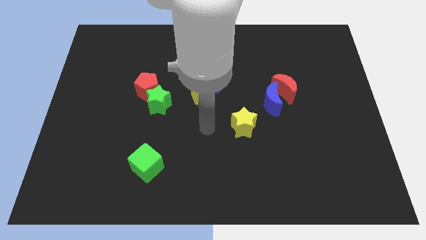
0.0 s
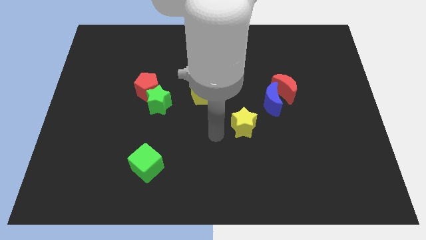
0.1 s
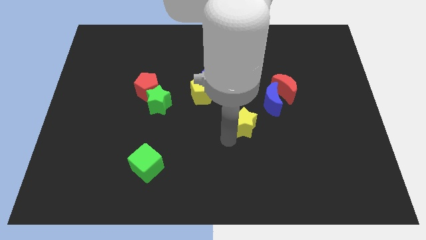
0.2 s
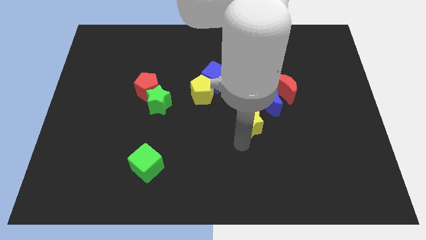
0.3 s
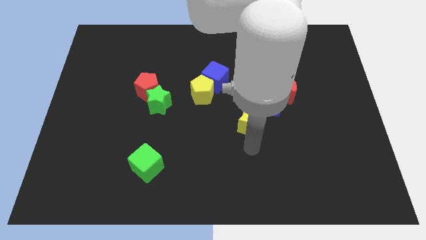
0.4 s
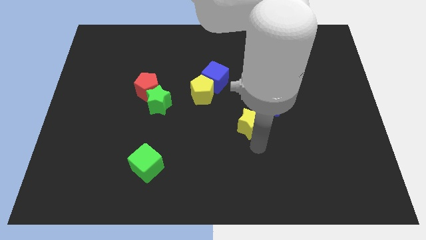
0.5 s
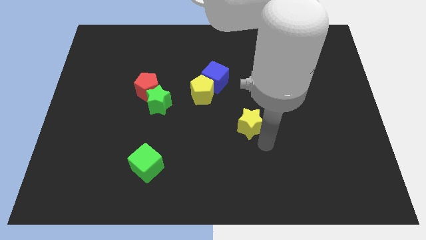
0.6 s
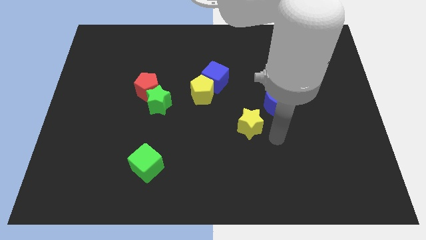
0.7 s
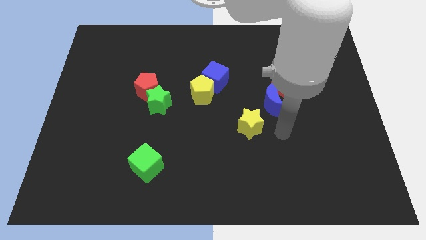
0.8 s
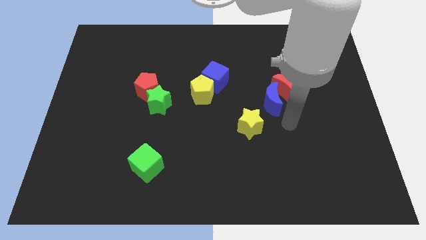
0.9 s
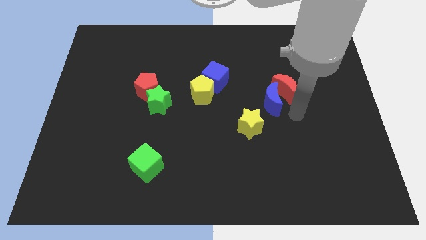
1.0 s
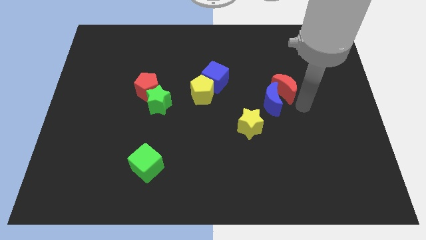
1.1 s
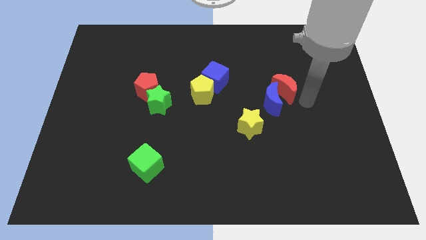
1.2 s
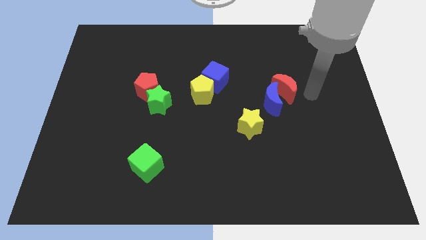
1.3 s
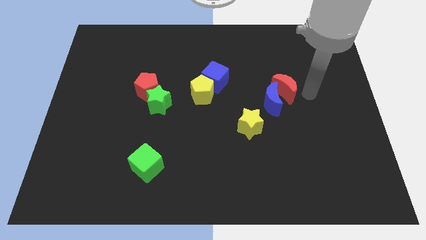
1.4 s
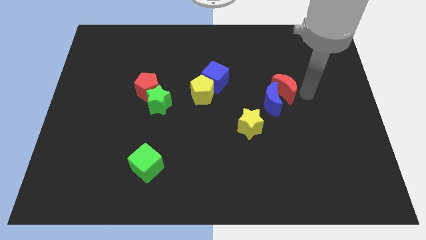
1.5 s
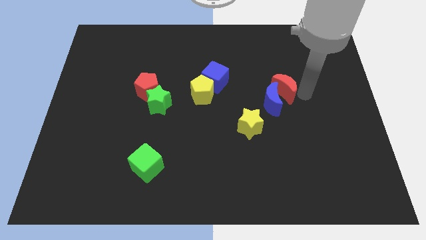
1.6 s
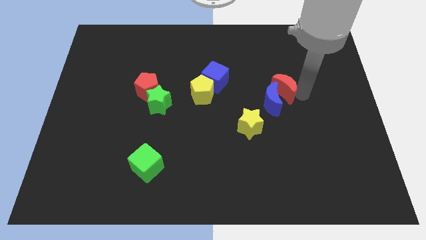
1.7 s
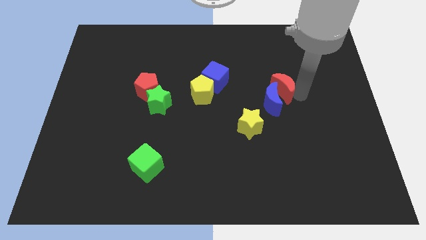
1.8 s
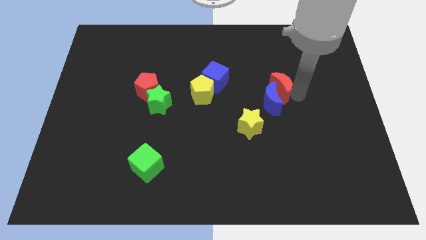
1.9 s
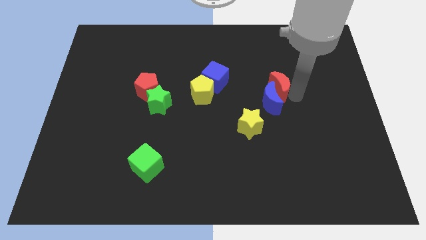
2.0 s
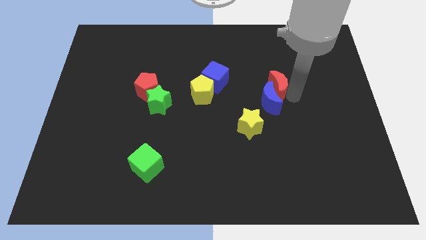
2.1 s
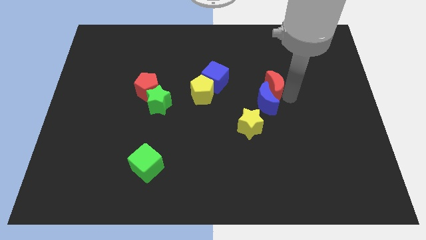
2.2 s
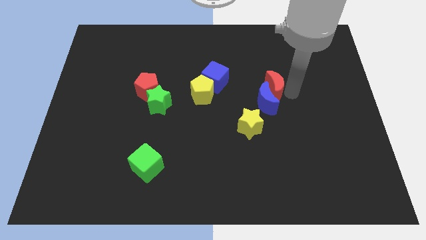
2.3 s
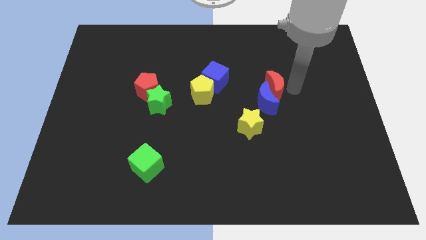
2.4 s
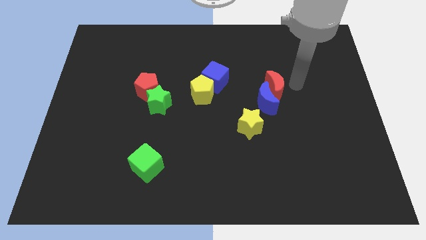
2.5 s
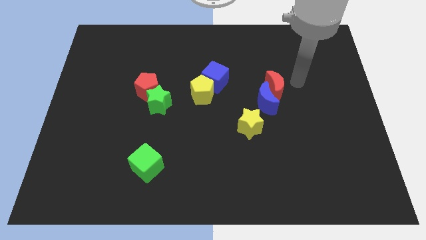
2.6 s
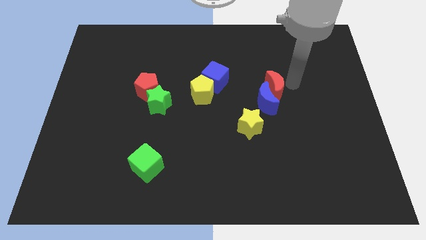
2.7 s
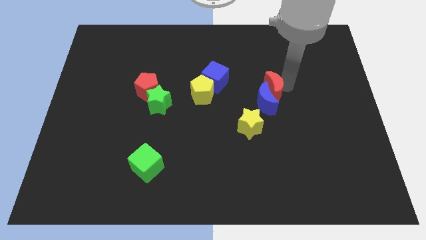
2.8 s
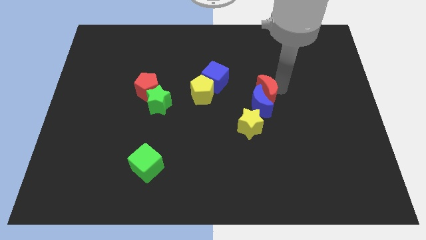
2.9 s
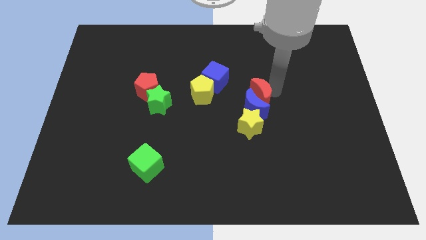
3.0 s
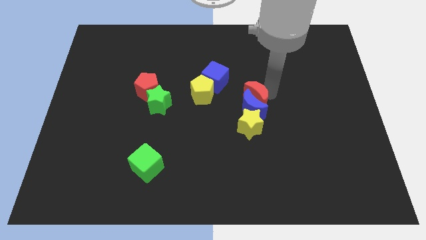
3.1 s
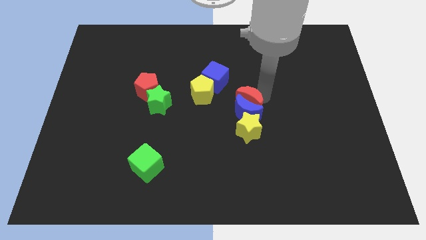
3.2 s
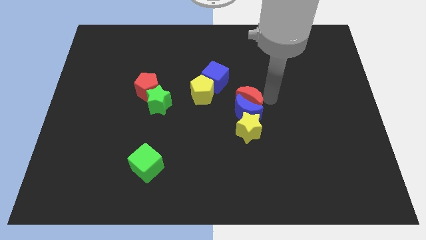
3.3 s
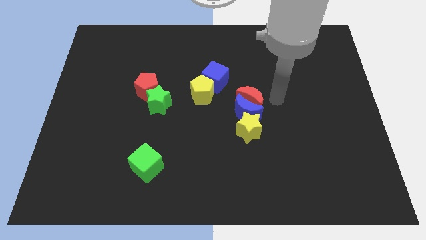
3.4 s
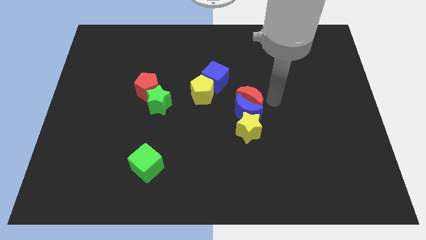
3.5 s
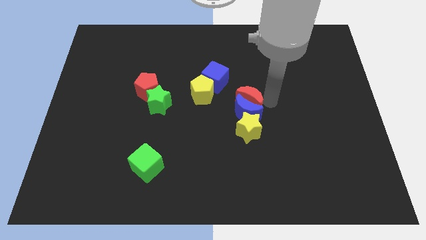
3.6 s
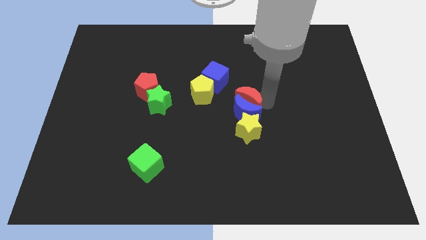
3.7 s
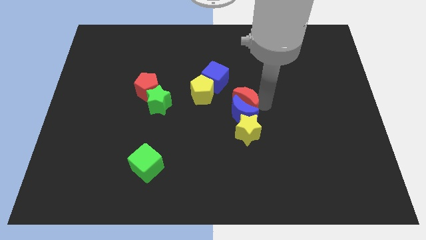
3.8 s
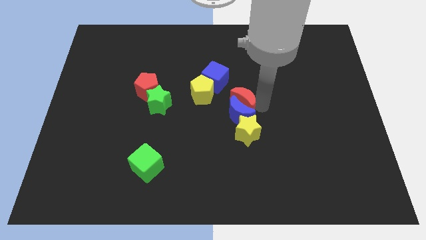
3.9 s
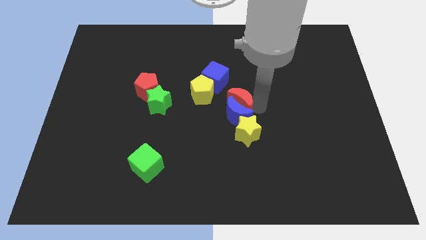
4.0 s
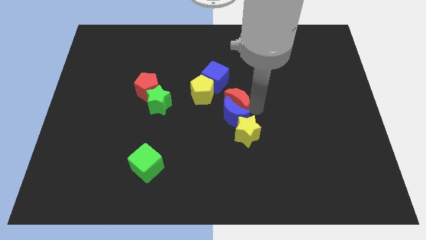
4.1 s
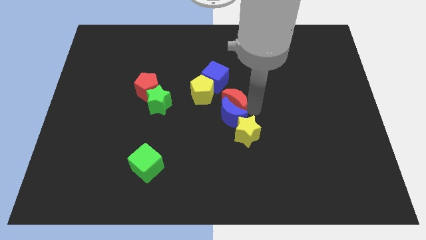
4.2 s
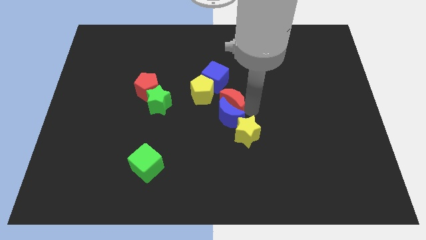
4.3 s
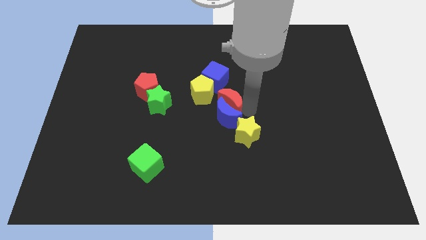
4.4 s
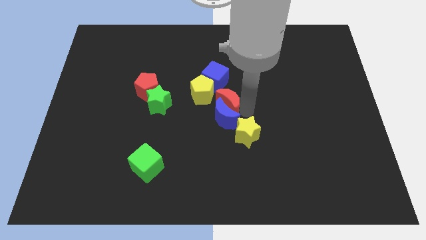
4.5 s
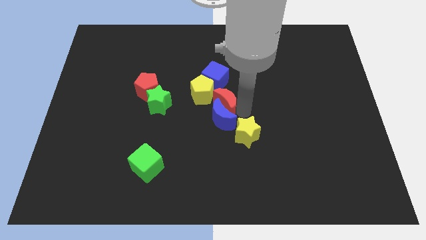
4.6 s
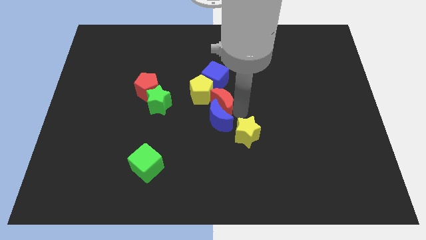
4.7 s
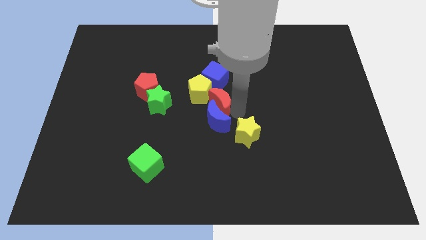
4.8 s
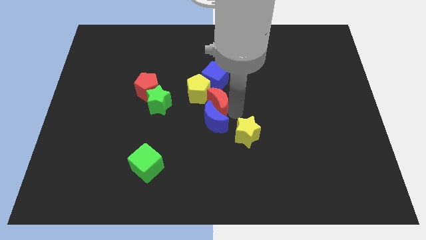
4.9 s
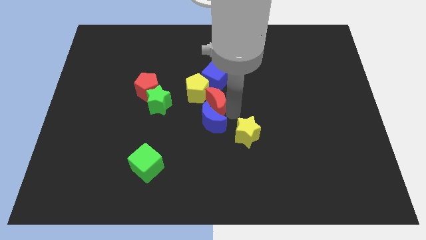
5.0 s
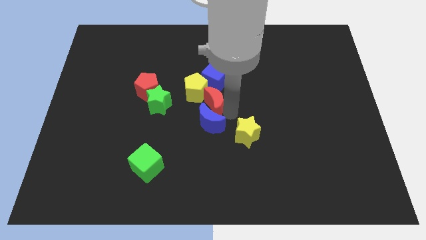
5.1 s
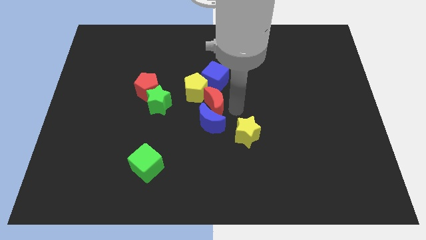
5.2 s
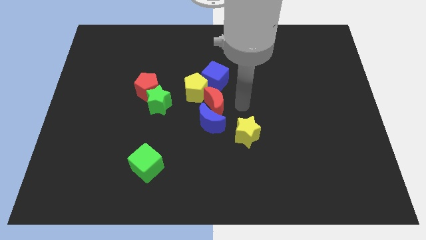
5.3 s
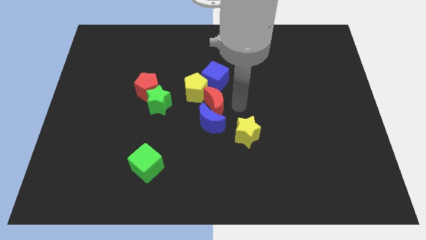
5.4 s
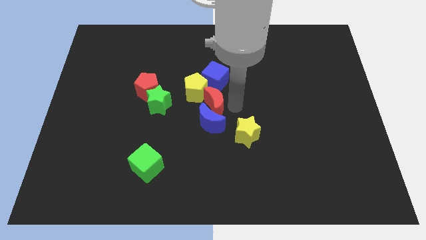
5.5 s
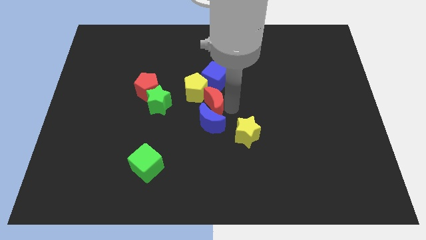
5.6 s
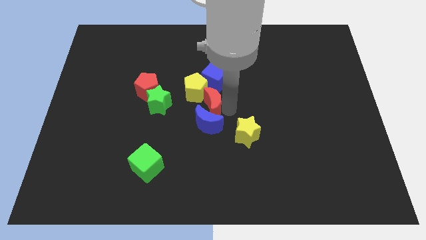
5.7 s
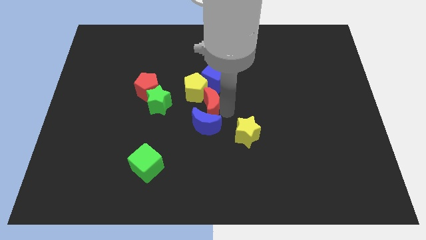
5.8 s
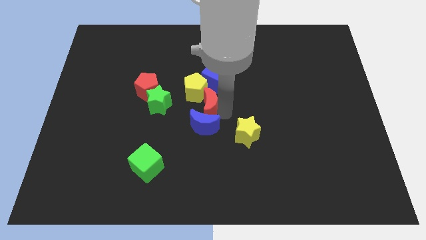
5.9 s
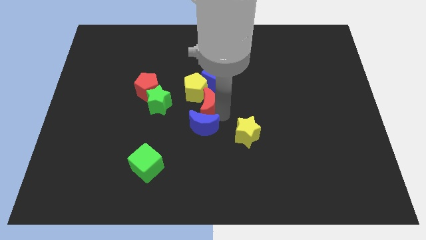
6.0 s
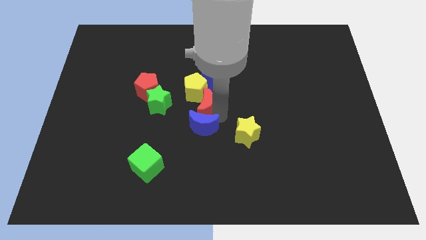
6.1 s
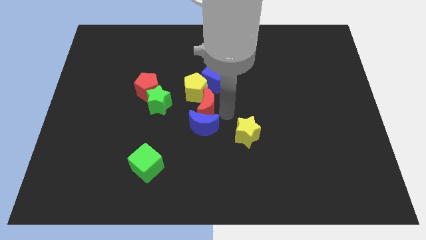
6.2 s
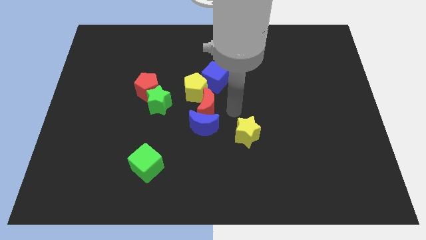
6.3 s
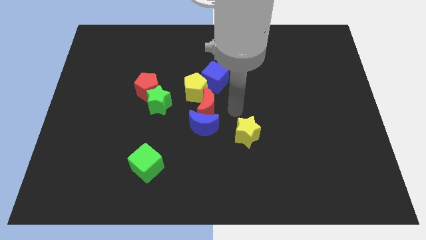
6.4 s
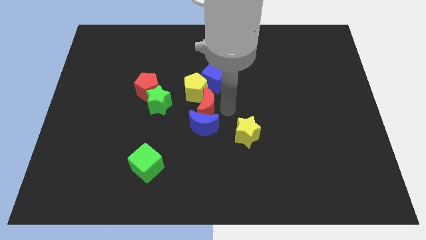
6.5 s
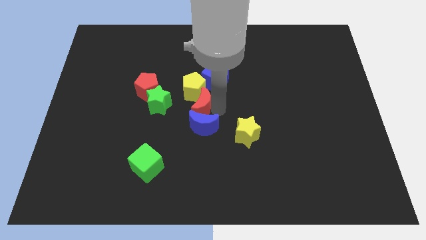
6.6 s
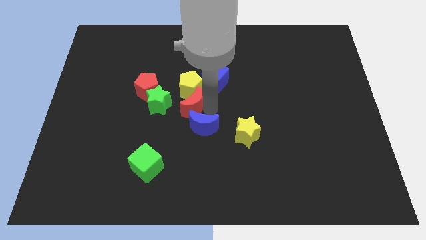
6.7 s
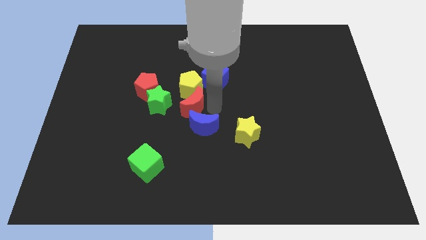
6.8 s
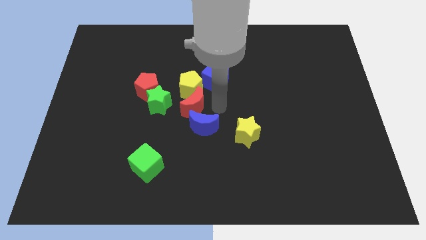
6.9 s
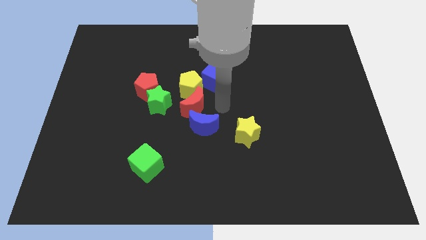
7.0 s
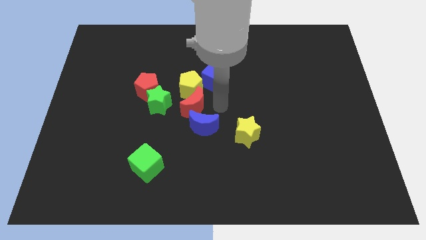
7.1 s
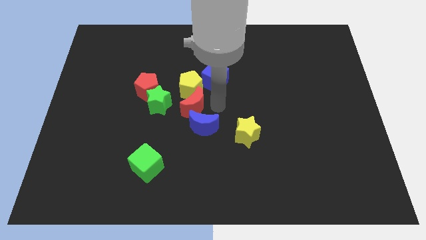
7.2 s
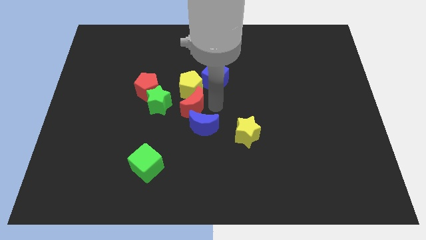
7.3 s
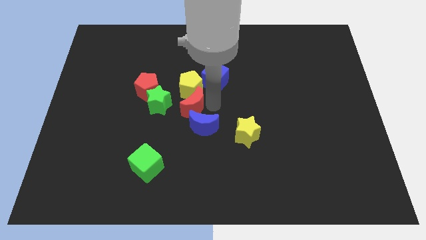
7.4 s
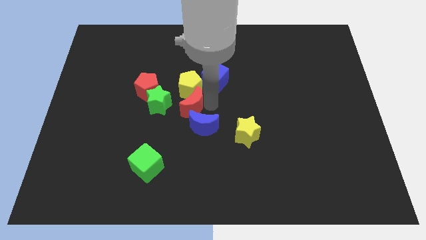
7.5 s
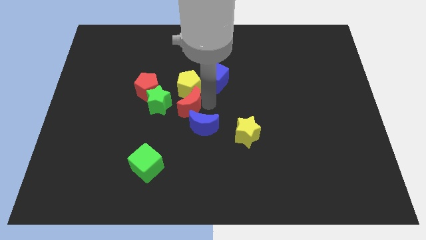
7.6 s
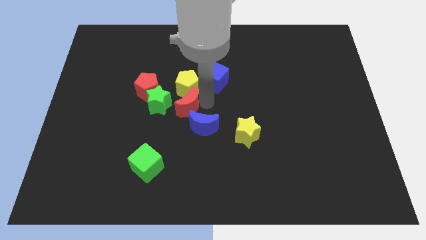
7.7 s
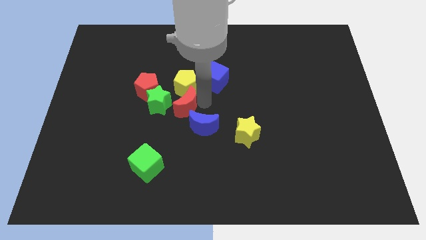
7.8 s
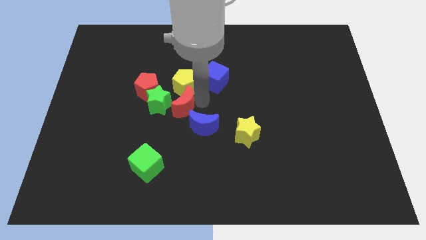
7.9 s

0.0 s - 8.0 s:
push the red moon next to the green star
